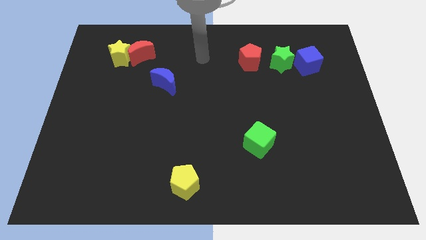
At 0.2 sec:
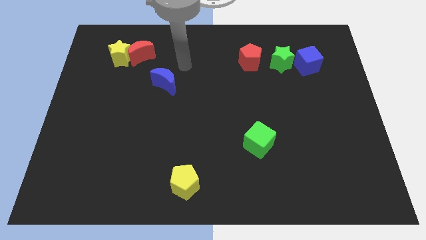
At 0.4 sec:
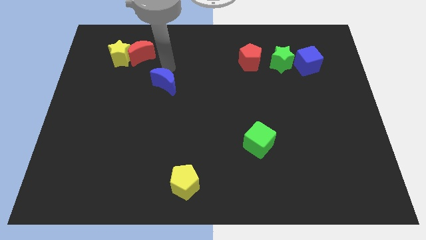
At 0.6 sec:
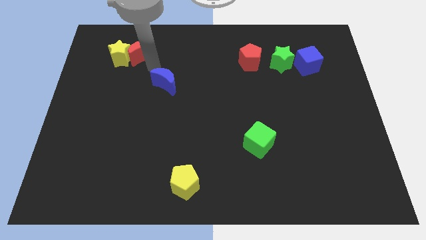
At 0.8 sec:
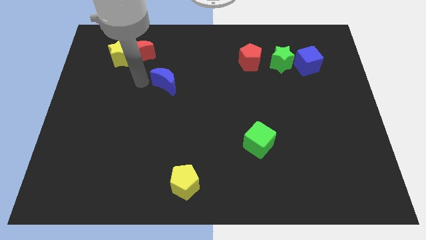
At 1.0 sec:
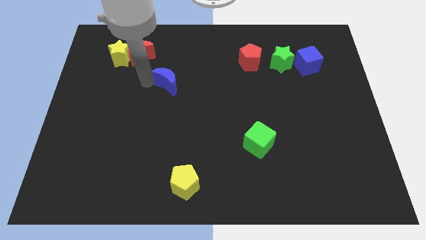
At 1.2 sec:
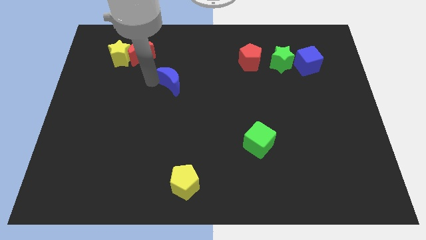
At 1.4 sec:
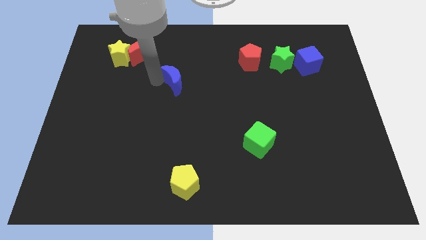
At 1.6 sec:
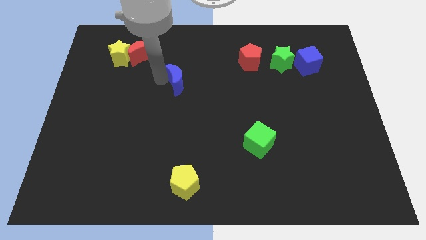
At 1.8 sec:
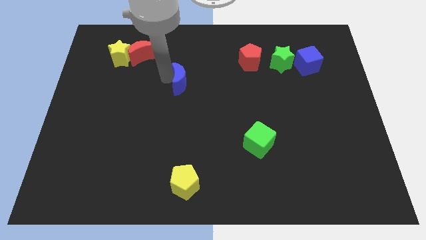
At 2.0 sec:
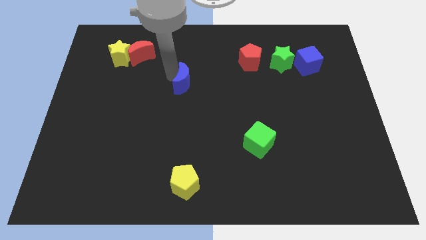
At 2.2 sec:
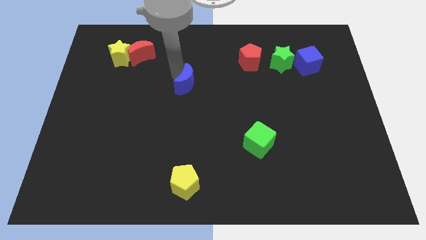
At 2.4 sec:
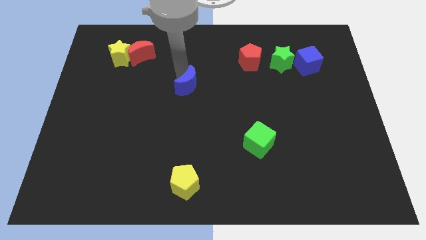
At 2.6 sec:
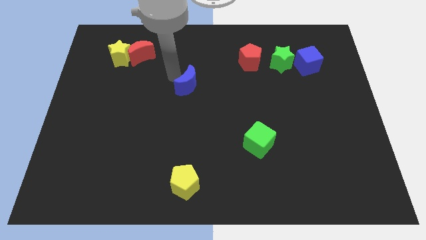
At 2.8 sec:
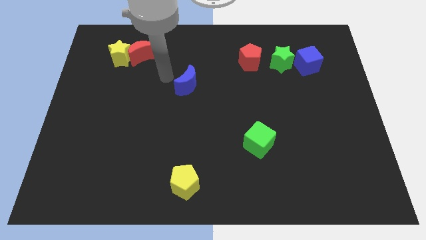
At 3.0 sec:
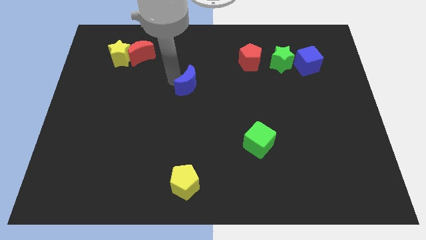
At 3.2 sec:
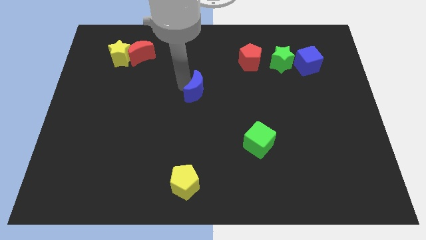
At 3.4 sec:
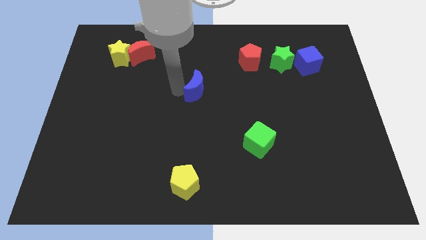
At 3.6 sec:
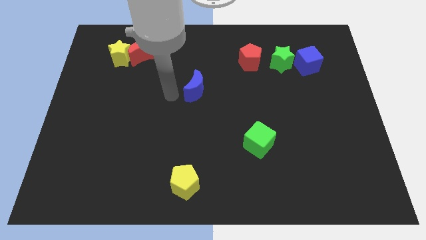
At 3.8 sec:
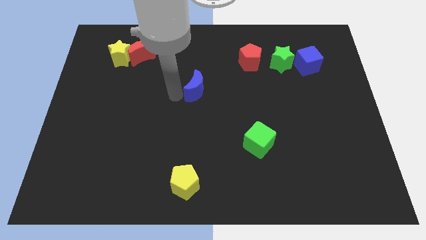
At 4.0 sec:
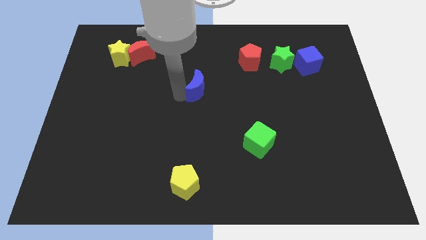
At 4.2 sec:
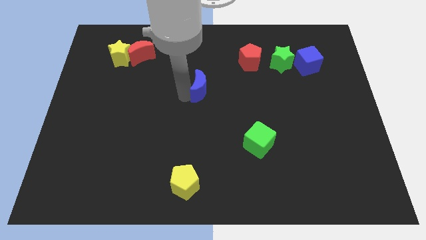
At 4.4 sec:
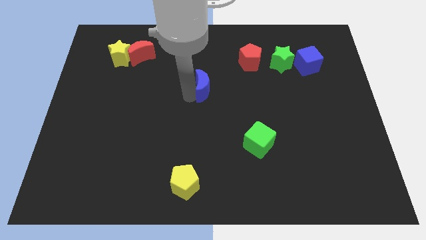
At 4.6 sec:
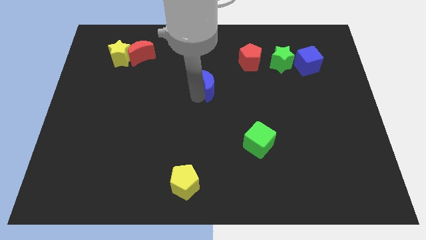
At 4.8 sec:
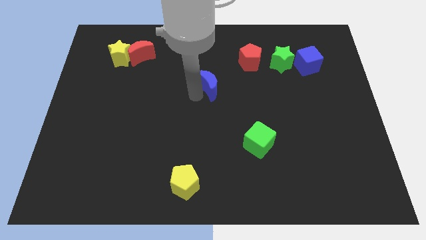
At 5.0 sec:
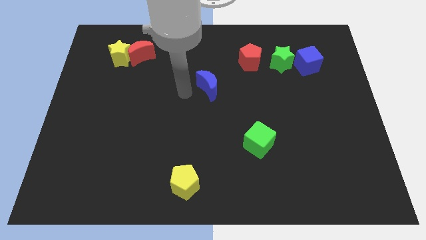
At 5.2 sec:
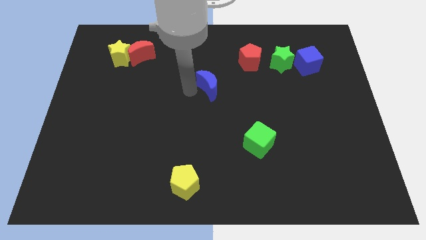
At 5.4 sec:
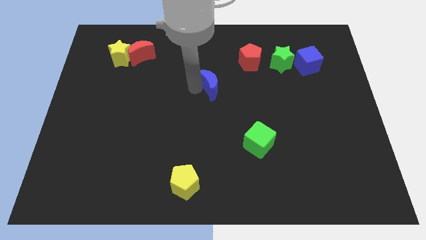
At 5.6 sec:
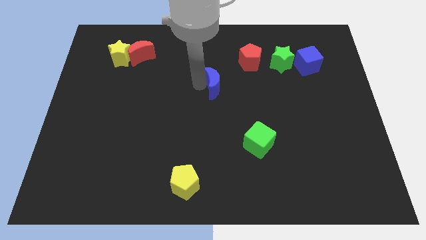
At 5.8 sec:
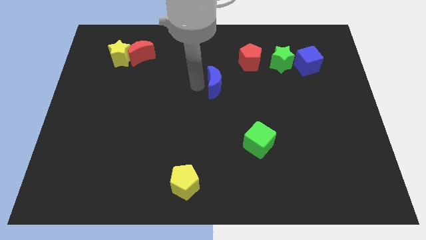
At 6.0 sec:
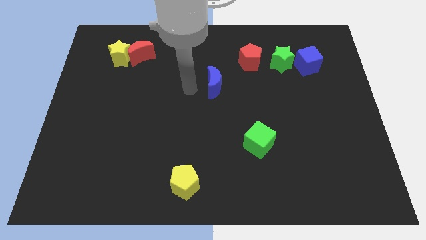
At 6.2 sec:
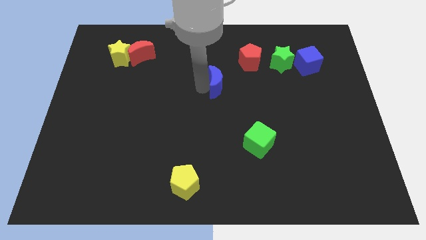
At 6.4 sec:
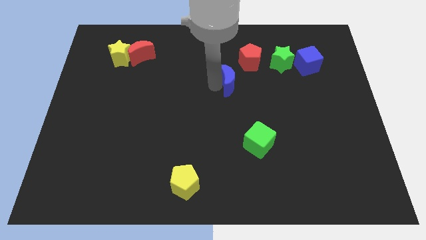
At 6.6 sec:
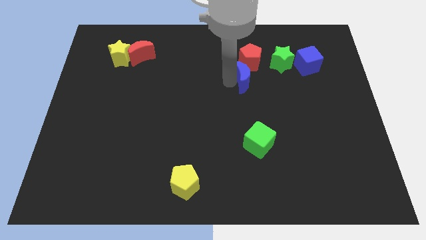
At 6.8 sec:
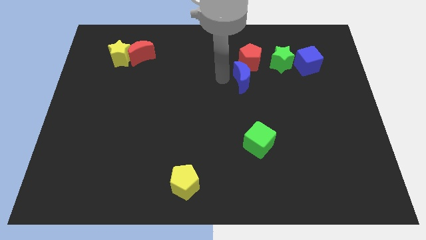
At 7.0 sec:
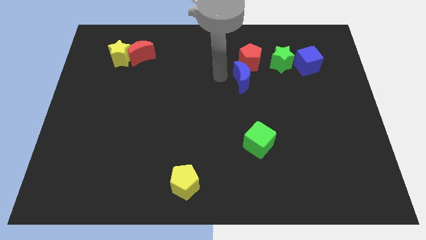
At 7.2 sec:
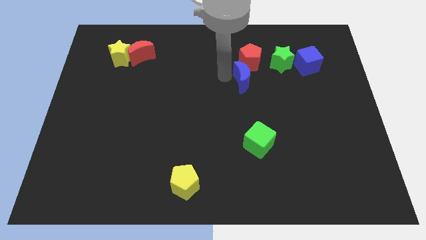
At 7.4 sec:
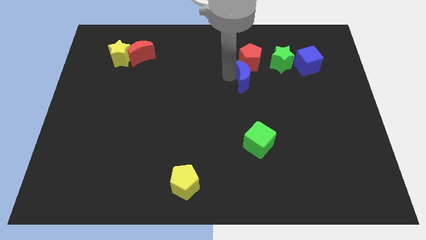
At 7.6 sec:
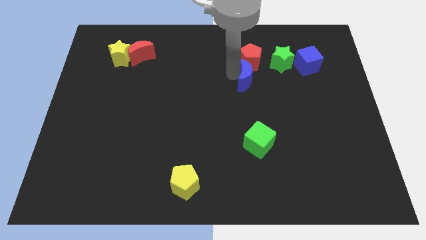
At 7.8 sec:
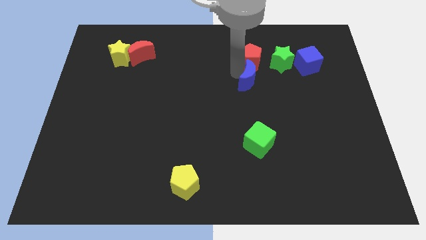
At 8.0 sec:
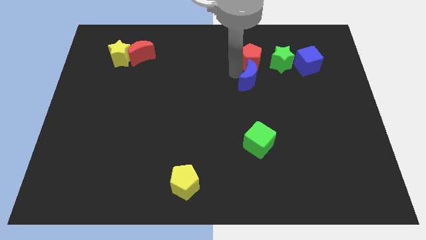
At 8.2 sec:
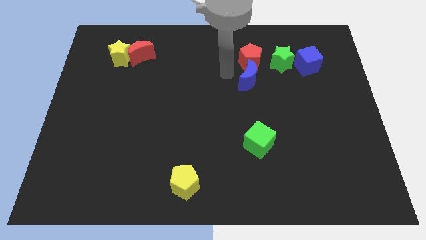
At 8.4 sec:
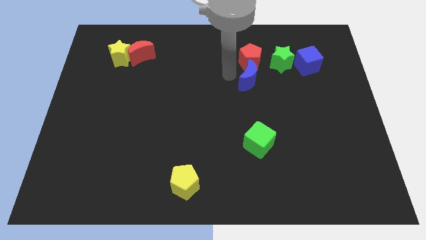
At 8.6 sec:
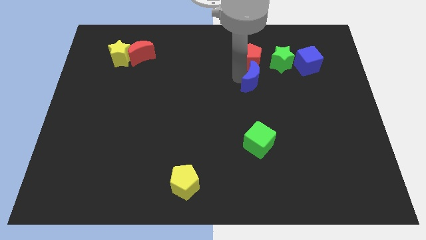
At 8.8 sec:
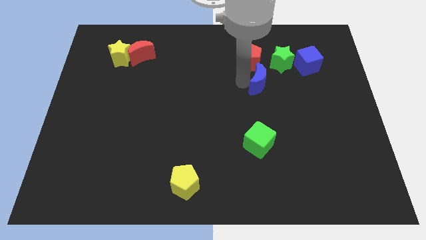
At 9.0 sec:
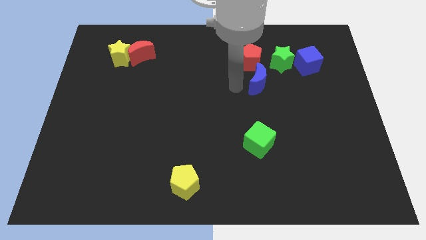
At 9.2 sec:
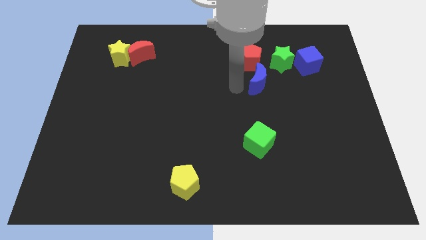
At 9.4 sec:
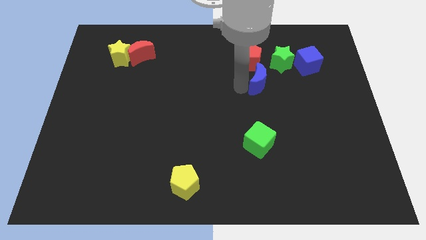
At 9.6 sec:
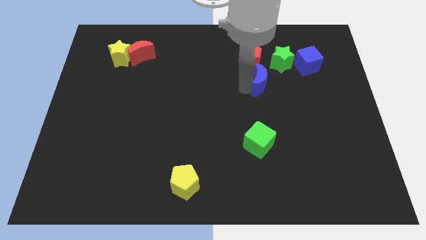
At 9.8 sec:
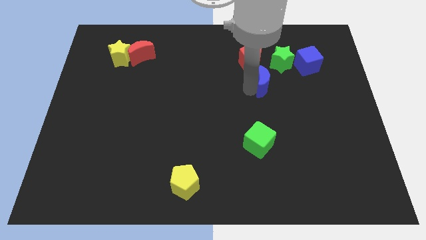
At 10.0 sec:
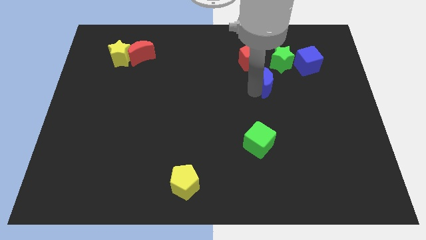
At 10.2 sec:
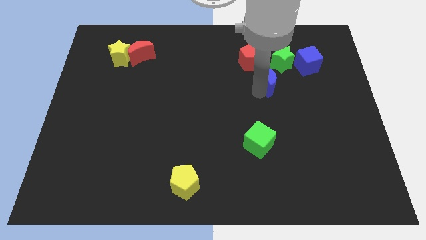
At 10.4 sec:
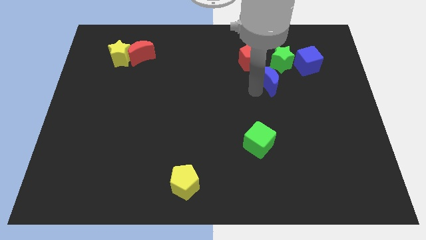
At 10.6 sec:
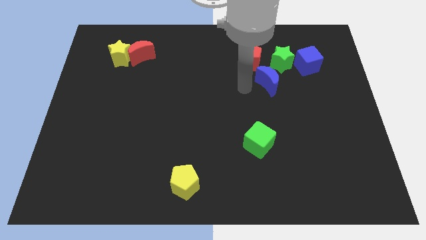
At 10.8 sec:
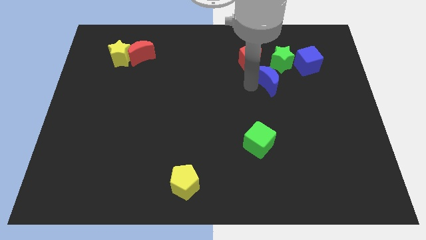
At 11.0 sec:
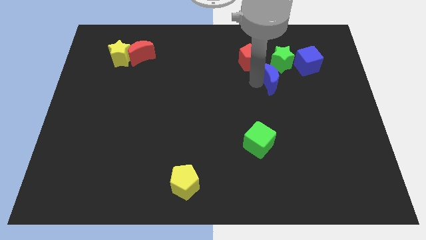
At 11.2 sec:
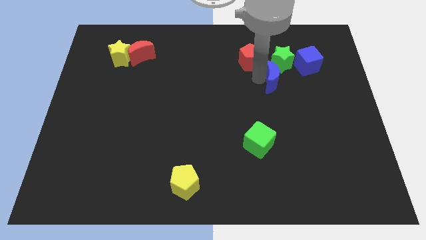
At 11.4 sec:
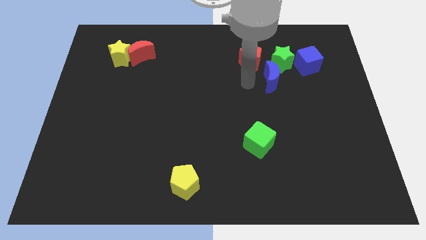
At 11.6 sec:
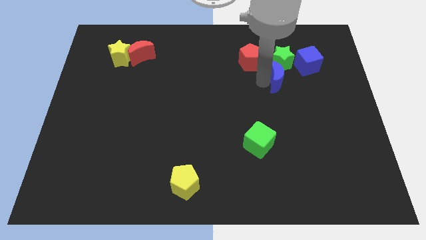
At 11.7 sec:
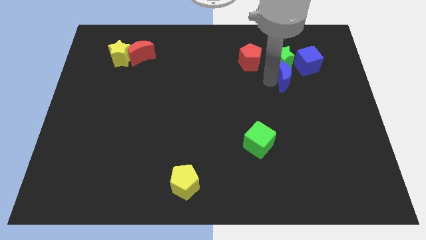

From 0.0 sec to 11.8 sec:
push the blue moon to the bottom right side of the green star

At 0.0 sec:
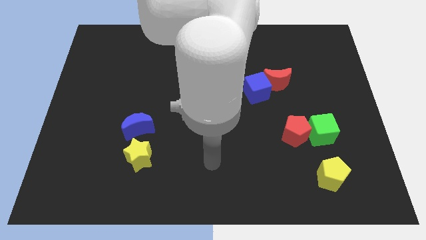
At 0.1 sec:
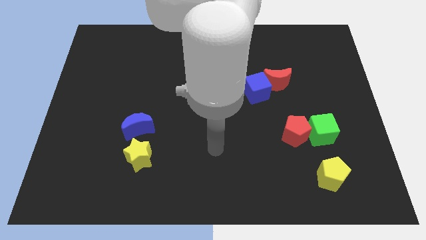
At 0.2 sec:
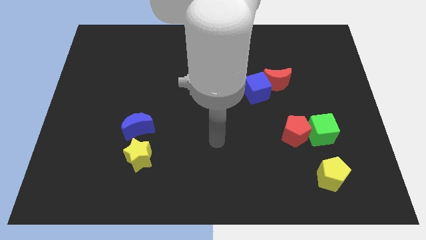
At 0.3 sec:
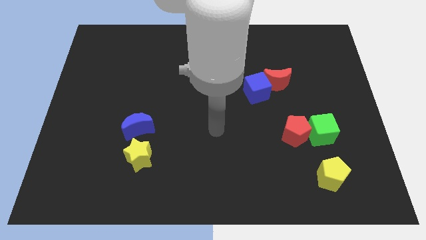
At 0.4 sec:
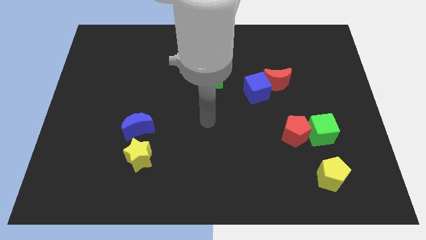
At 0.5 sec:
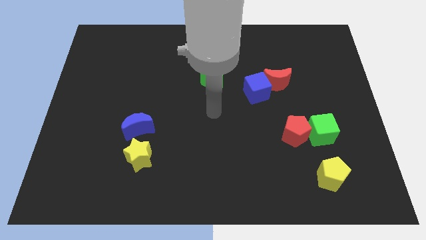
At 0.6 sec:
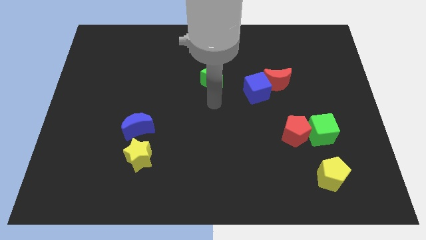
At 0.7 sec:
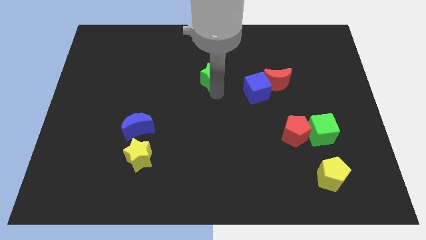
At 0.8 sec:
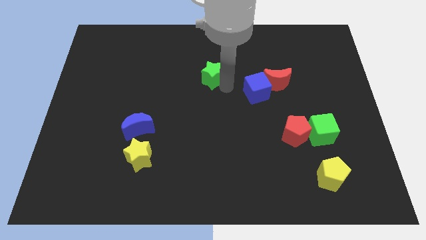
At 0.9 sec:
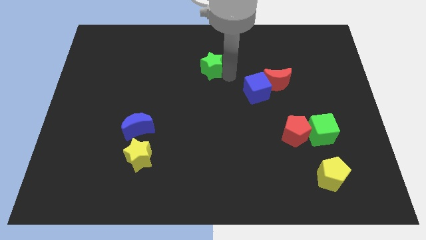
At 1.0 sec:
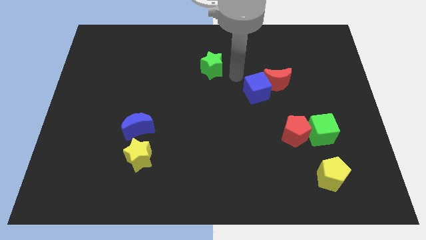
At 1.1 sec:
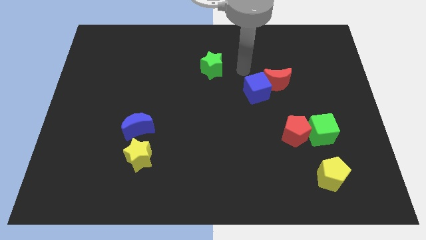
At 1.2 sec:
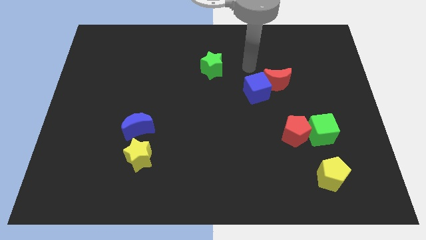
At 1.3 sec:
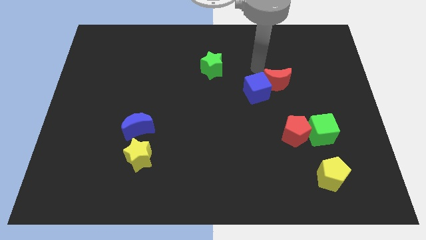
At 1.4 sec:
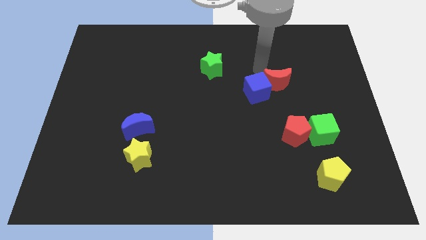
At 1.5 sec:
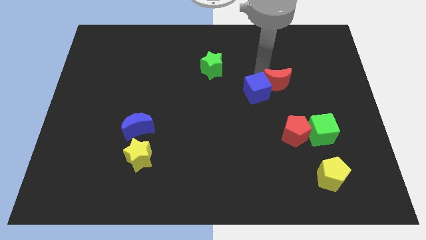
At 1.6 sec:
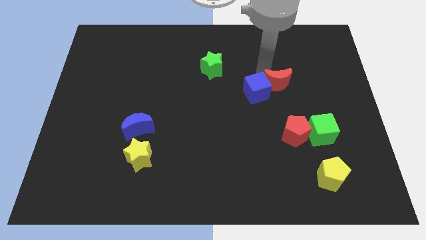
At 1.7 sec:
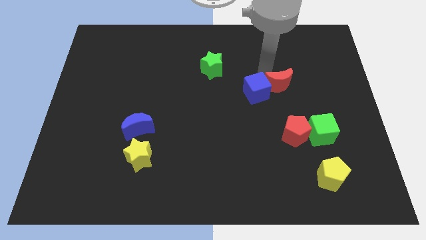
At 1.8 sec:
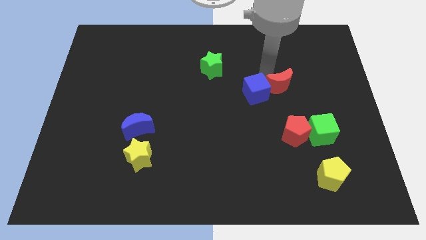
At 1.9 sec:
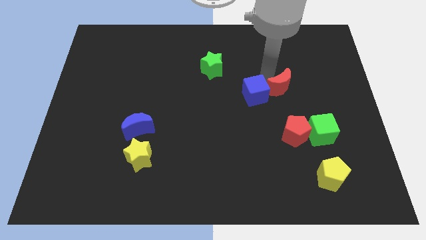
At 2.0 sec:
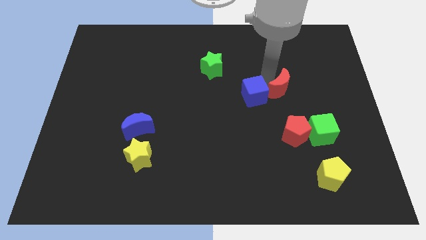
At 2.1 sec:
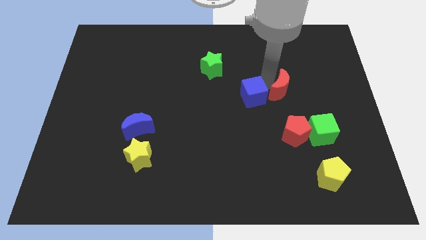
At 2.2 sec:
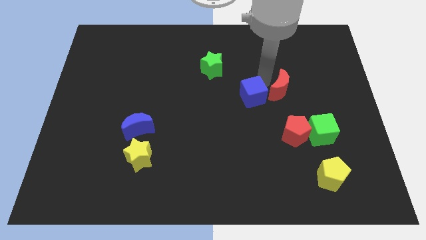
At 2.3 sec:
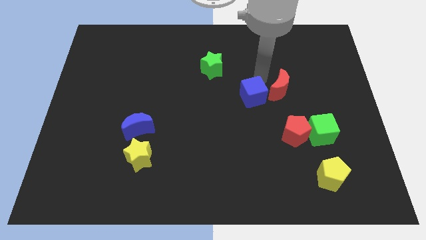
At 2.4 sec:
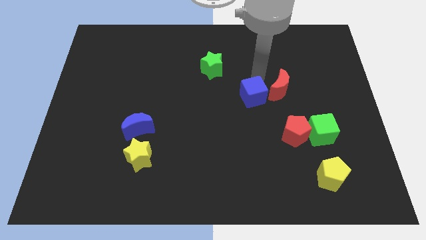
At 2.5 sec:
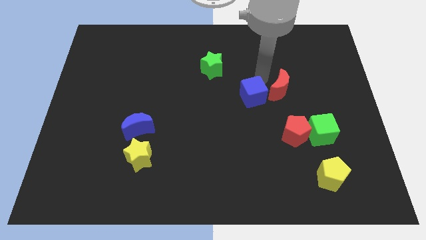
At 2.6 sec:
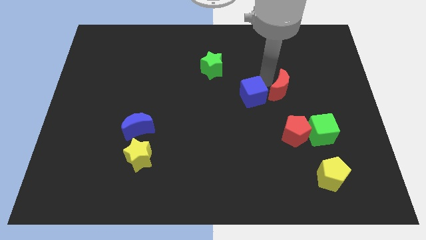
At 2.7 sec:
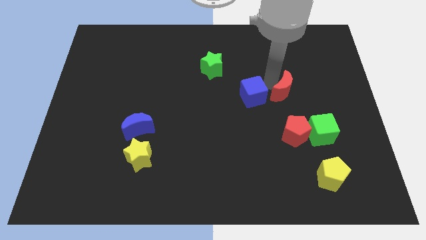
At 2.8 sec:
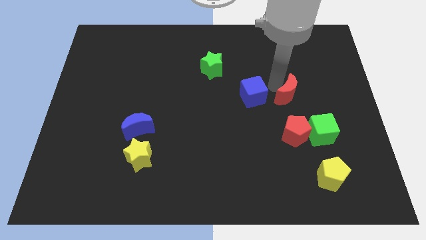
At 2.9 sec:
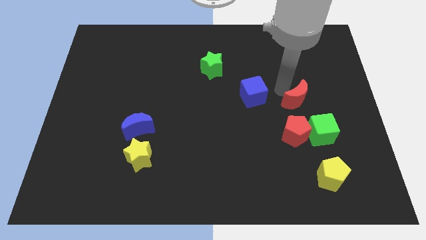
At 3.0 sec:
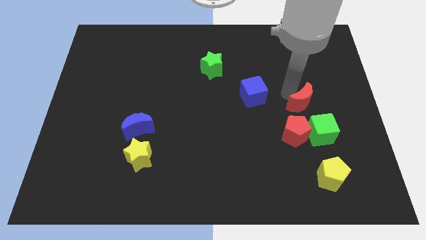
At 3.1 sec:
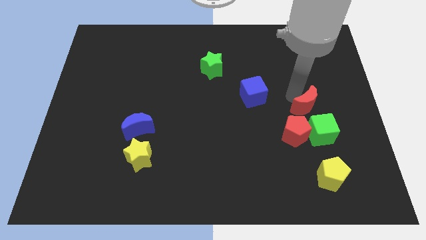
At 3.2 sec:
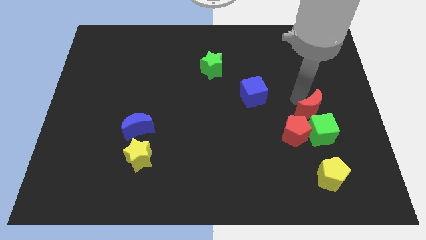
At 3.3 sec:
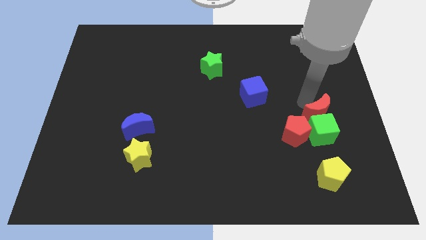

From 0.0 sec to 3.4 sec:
move the red moon above the yellow pentagon
